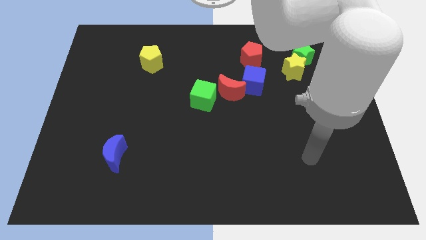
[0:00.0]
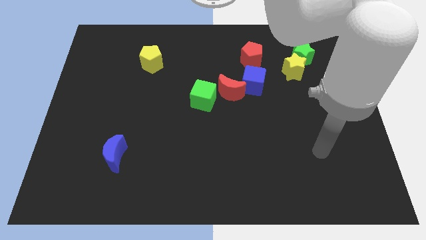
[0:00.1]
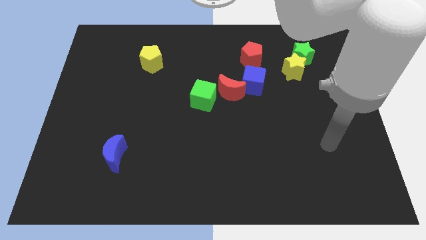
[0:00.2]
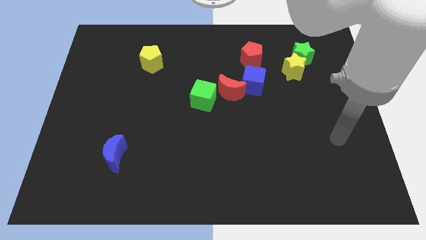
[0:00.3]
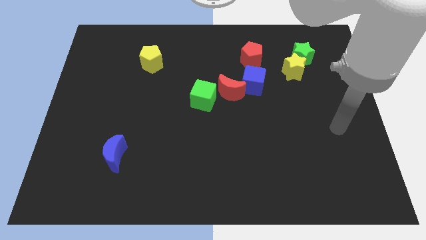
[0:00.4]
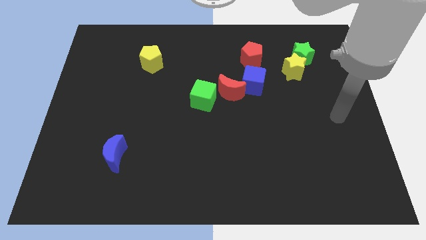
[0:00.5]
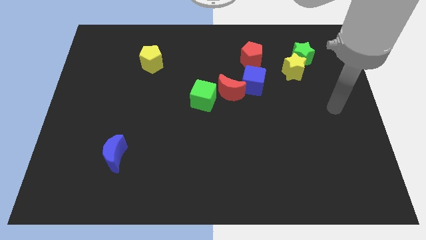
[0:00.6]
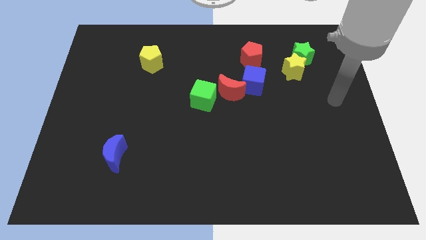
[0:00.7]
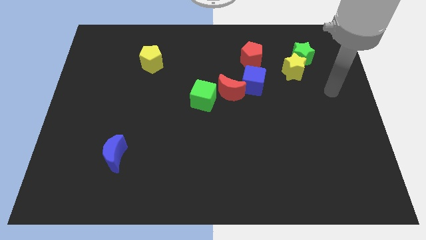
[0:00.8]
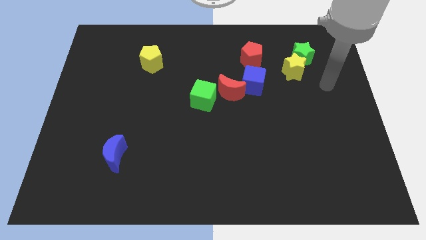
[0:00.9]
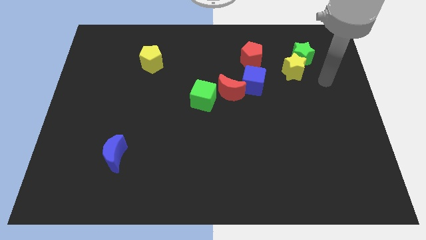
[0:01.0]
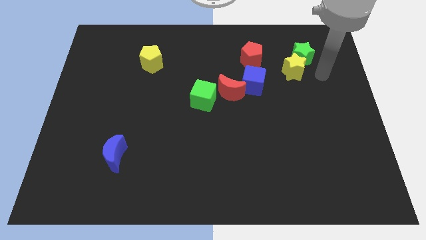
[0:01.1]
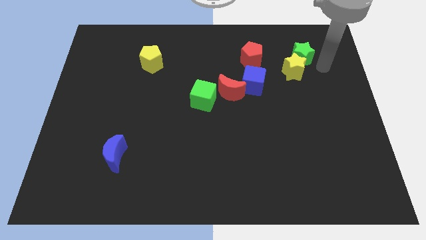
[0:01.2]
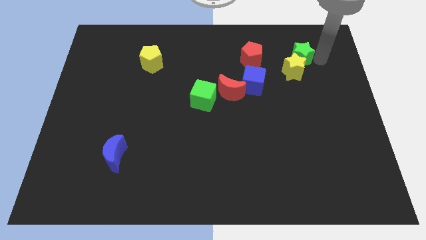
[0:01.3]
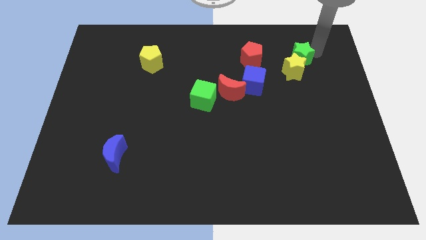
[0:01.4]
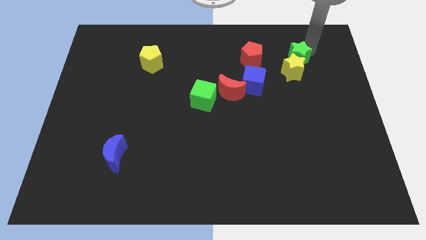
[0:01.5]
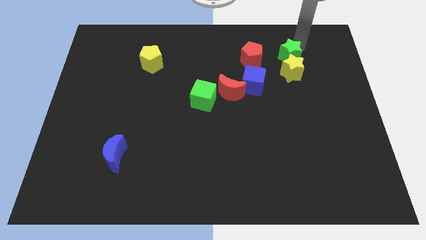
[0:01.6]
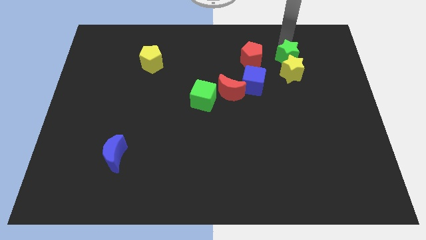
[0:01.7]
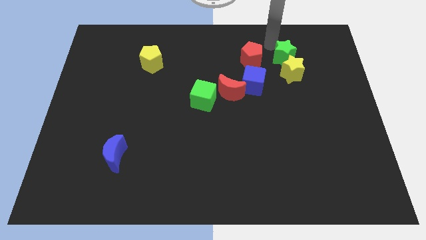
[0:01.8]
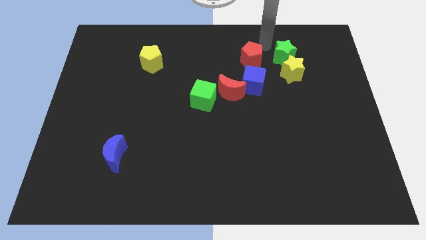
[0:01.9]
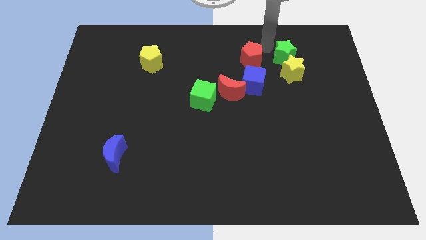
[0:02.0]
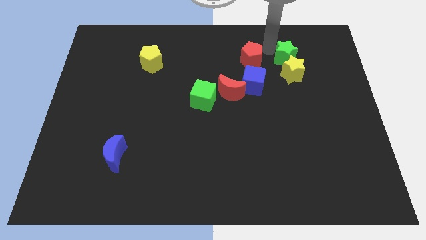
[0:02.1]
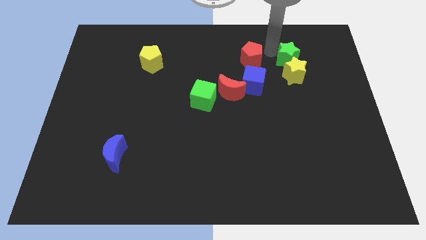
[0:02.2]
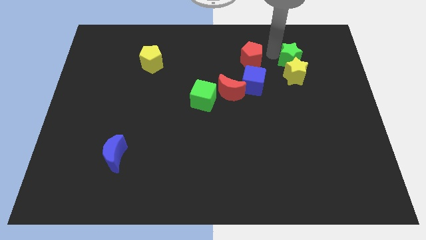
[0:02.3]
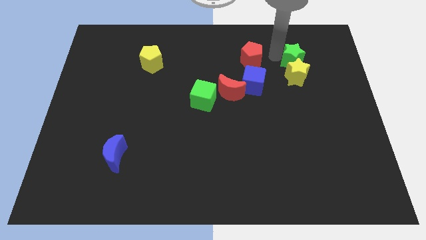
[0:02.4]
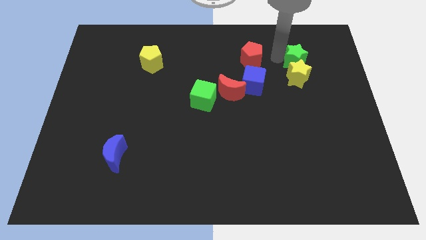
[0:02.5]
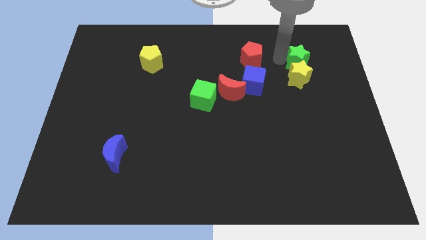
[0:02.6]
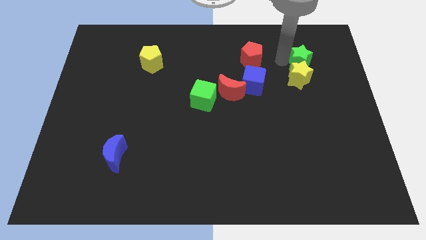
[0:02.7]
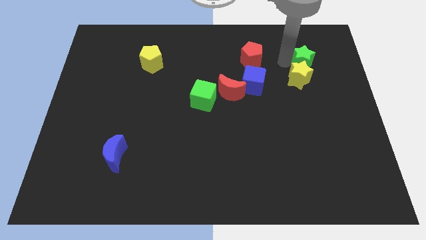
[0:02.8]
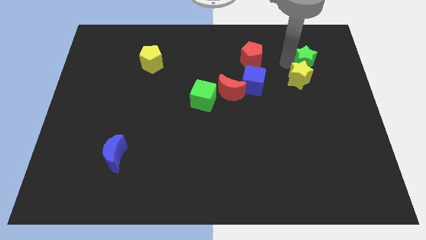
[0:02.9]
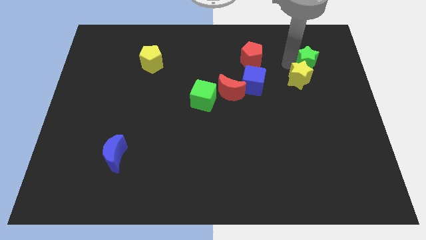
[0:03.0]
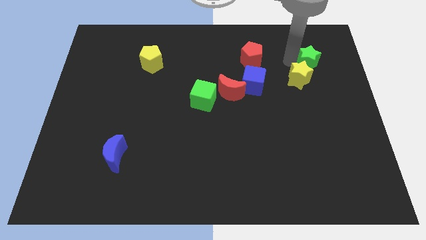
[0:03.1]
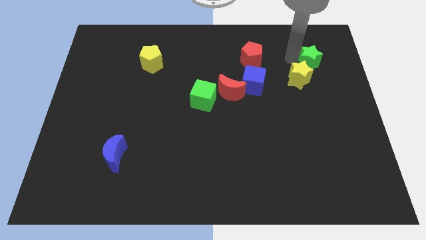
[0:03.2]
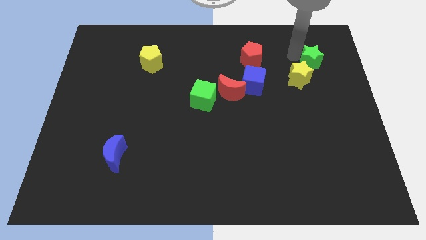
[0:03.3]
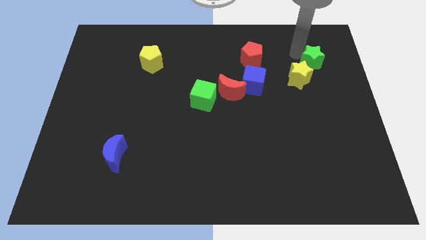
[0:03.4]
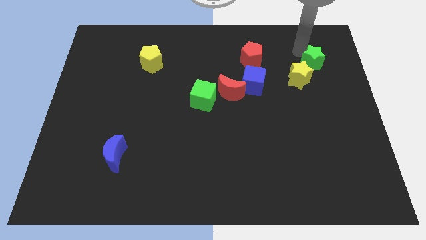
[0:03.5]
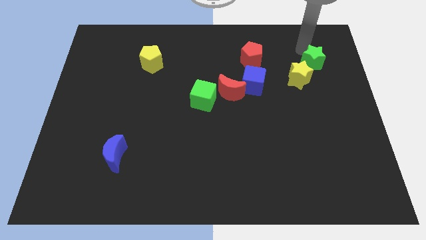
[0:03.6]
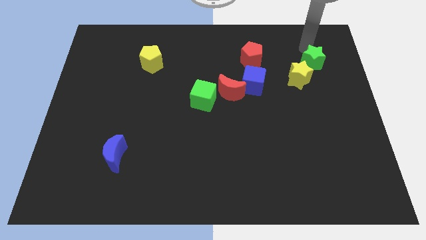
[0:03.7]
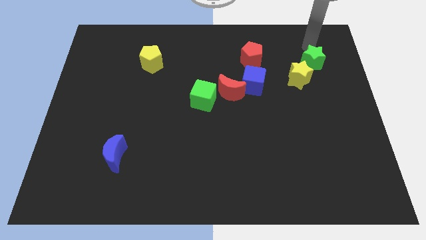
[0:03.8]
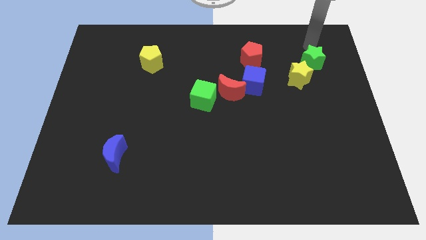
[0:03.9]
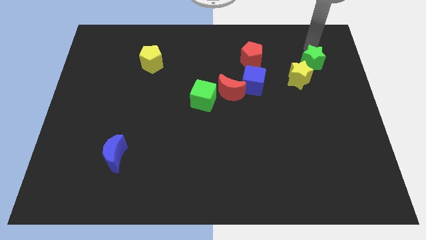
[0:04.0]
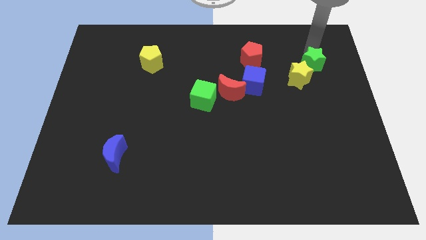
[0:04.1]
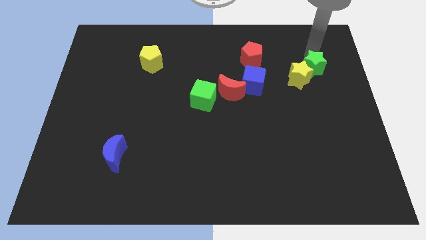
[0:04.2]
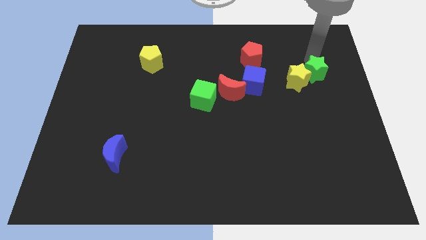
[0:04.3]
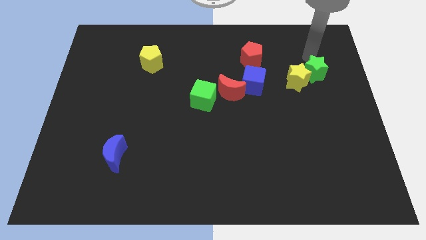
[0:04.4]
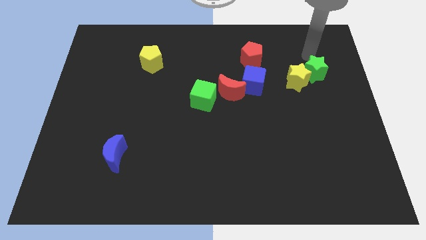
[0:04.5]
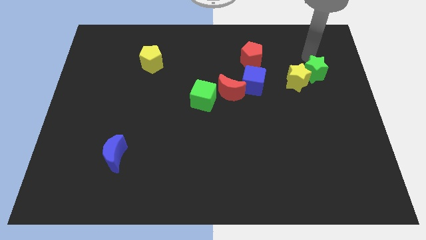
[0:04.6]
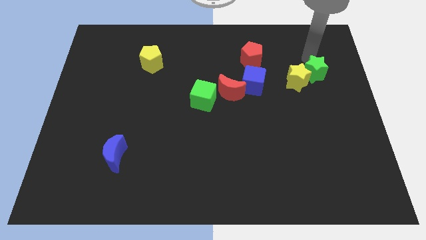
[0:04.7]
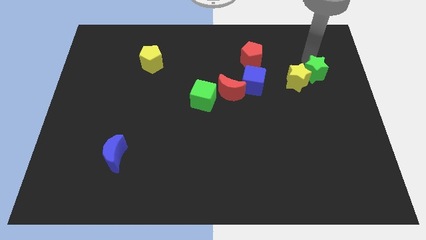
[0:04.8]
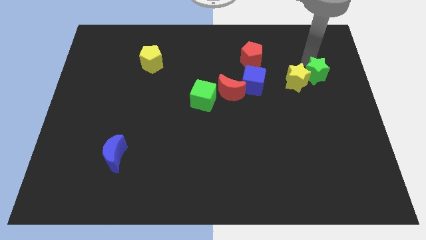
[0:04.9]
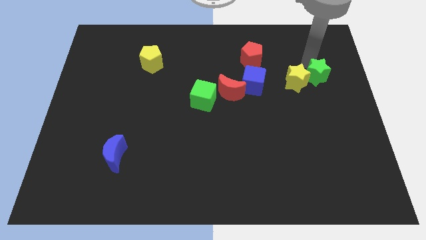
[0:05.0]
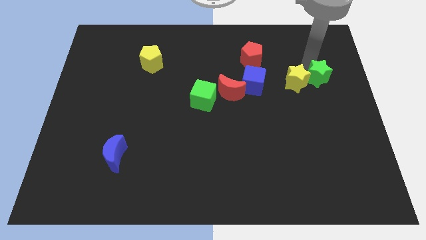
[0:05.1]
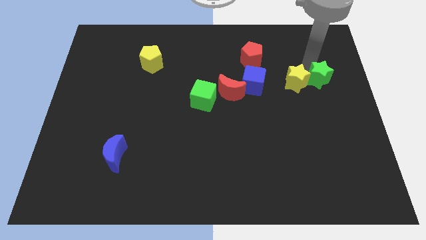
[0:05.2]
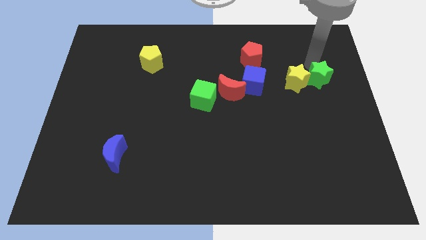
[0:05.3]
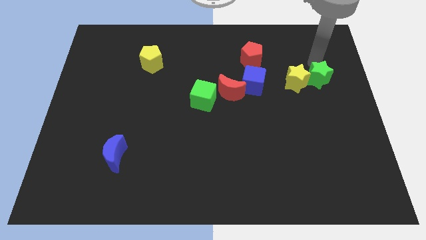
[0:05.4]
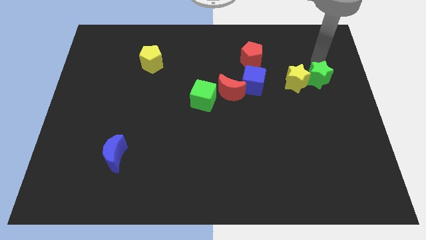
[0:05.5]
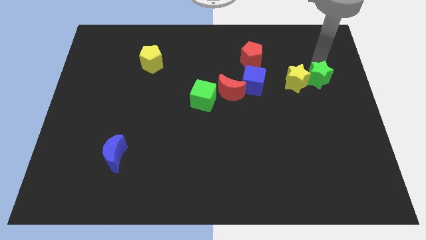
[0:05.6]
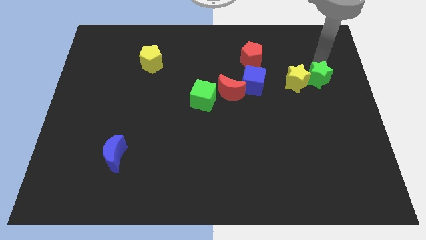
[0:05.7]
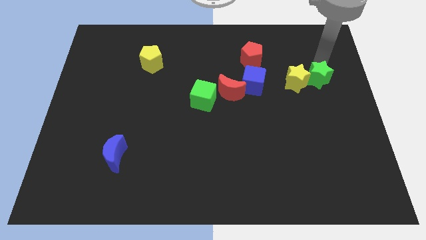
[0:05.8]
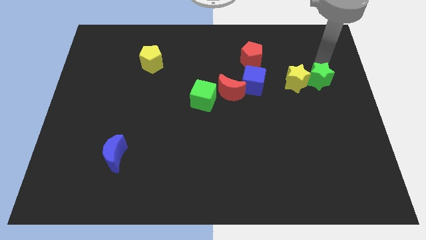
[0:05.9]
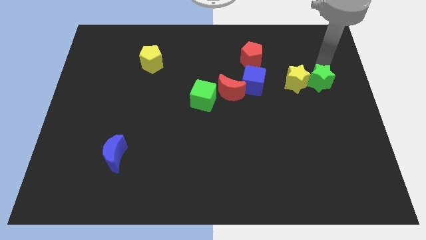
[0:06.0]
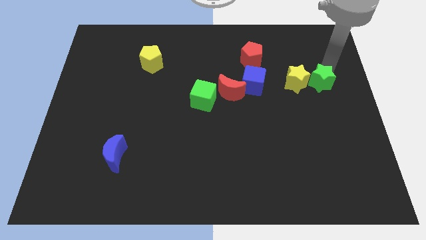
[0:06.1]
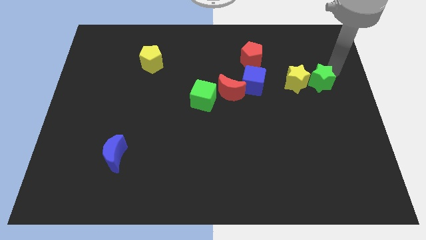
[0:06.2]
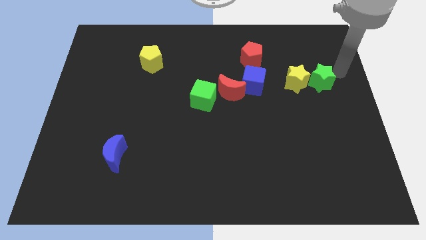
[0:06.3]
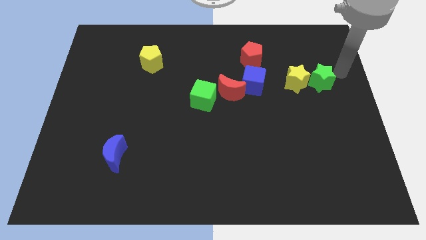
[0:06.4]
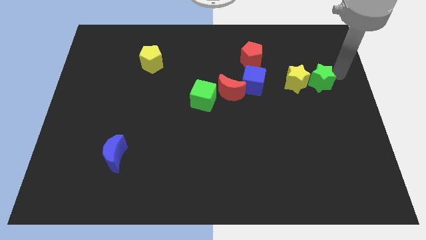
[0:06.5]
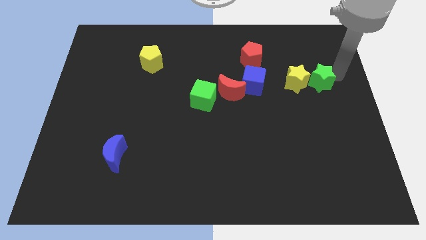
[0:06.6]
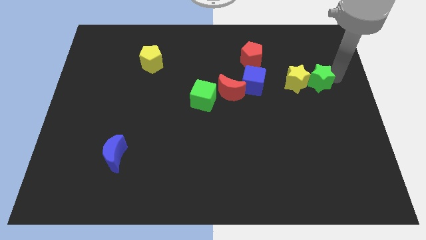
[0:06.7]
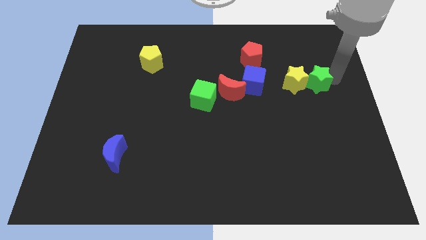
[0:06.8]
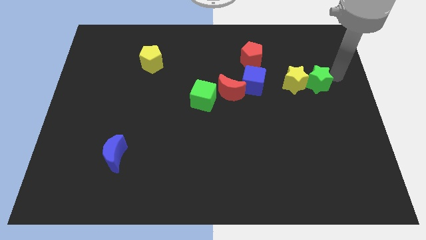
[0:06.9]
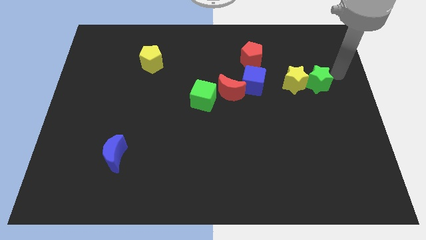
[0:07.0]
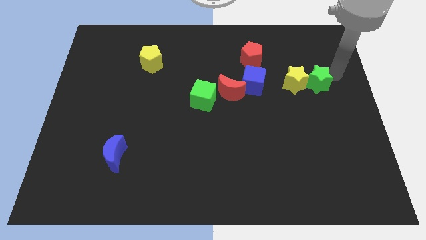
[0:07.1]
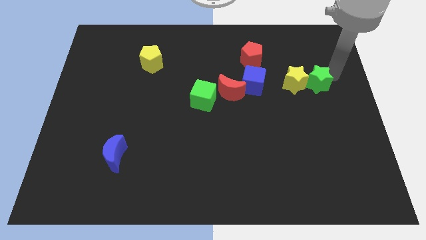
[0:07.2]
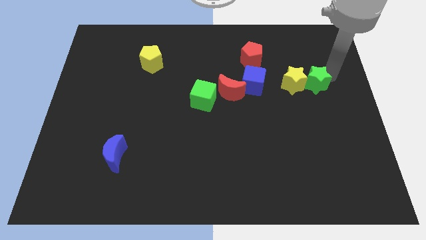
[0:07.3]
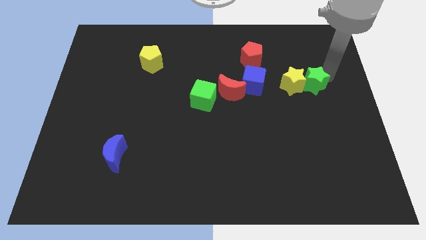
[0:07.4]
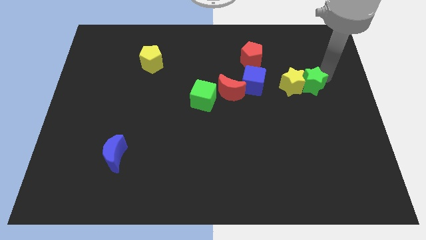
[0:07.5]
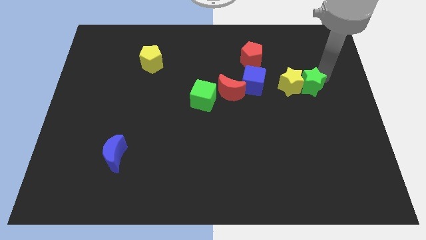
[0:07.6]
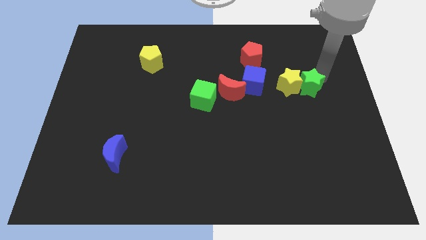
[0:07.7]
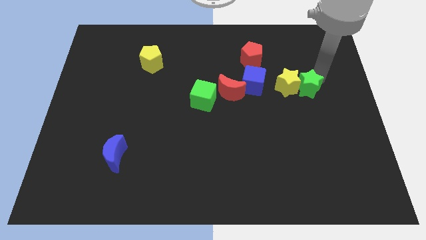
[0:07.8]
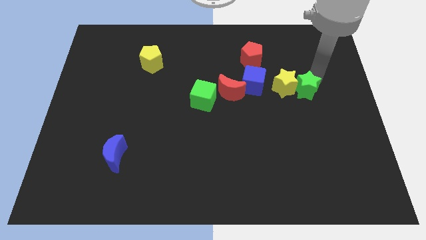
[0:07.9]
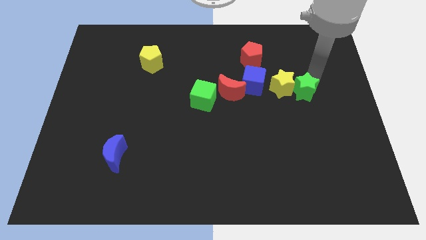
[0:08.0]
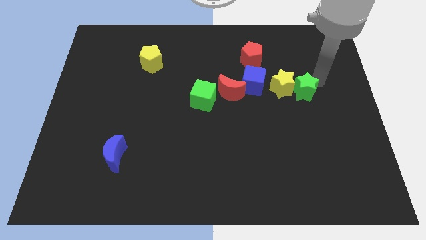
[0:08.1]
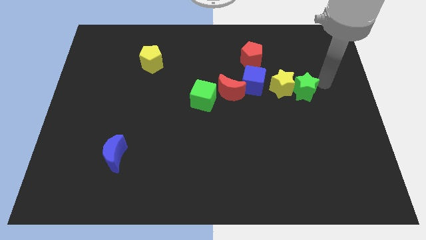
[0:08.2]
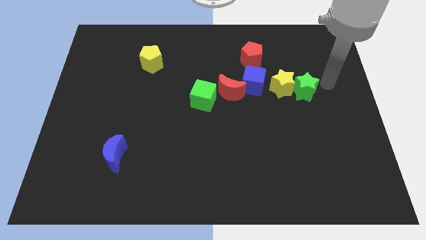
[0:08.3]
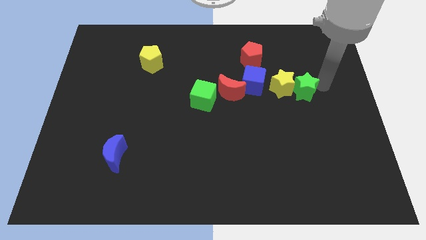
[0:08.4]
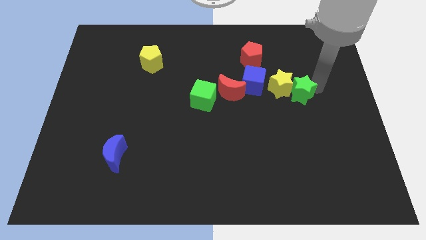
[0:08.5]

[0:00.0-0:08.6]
slightly push the green star diagonally downwards and left
